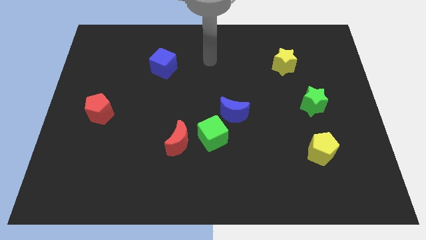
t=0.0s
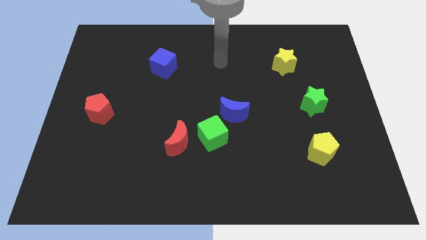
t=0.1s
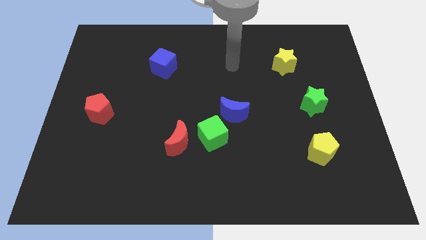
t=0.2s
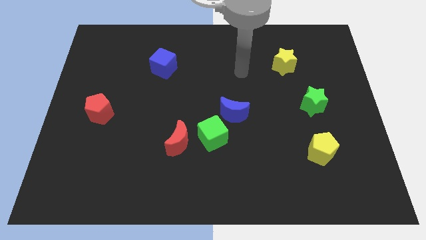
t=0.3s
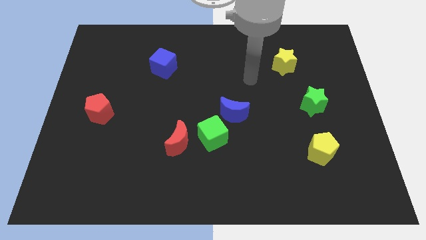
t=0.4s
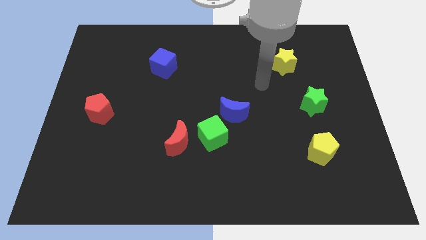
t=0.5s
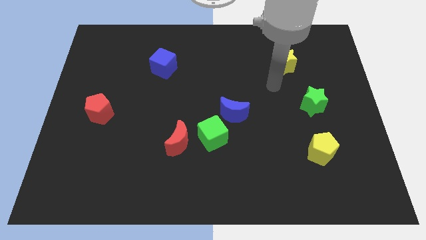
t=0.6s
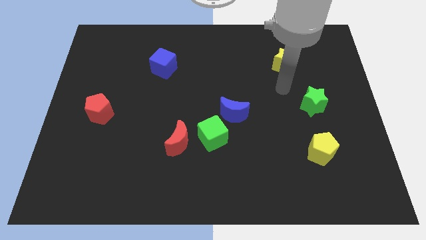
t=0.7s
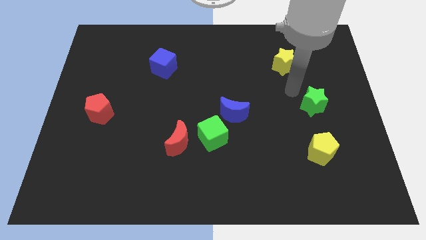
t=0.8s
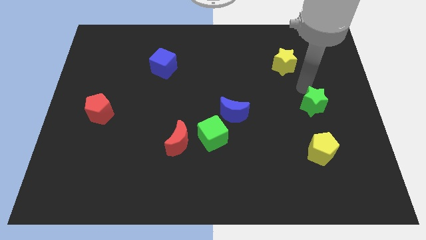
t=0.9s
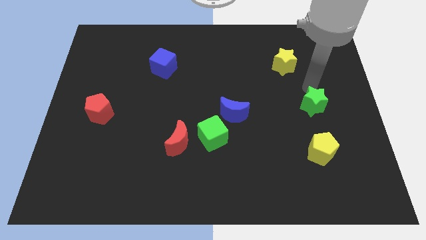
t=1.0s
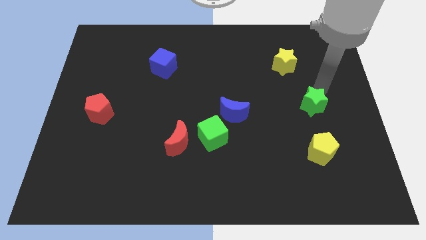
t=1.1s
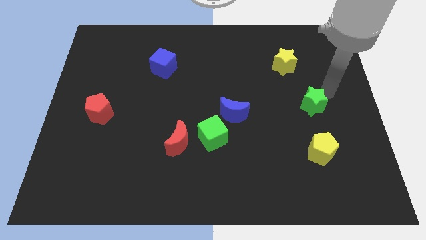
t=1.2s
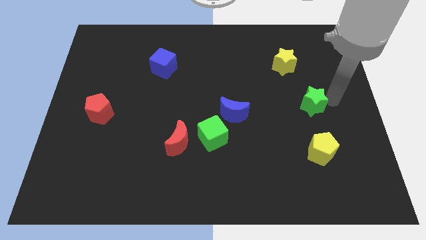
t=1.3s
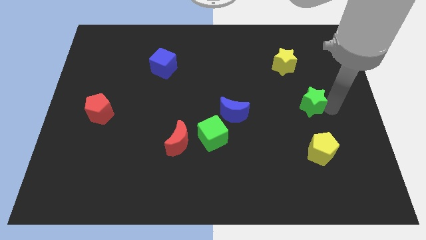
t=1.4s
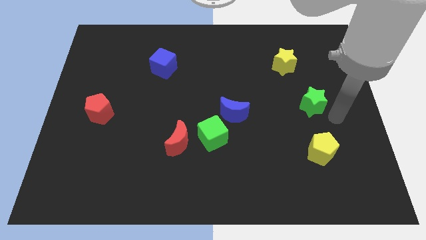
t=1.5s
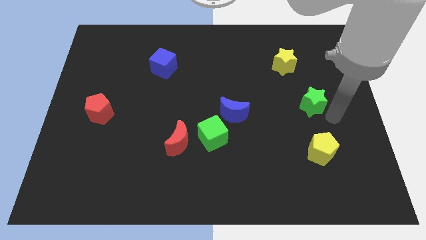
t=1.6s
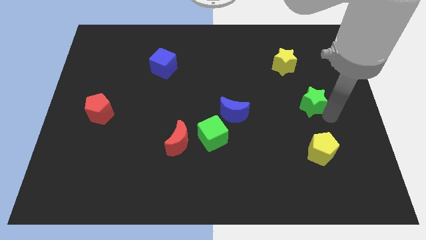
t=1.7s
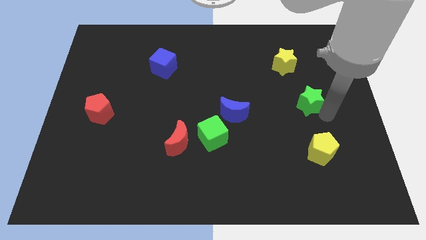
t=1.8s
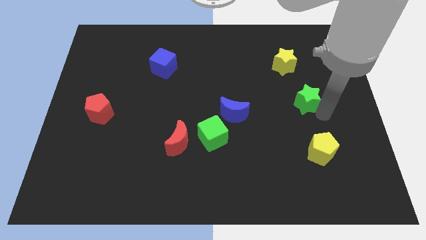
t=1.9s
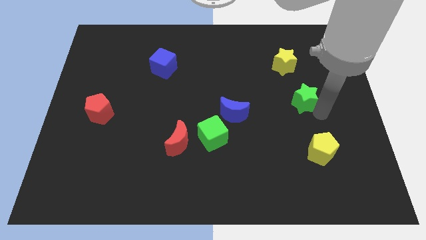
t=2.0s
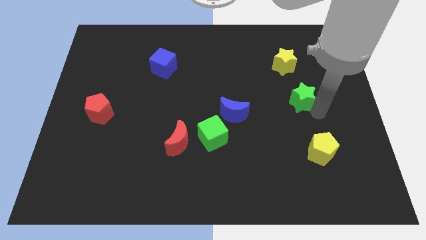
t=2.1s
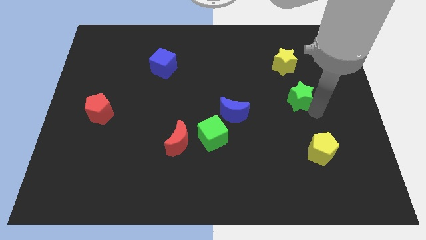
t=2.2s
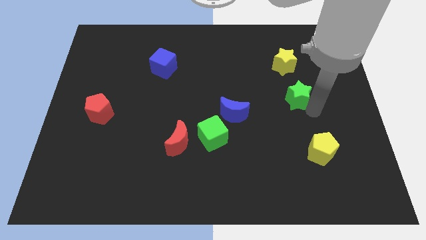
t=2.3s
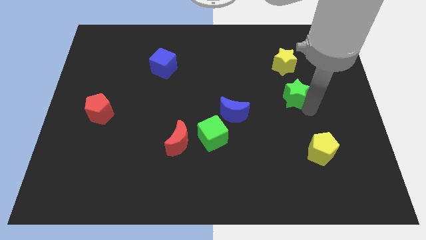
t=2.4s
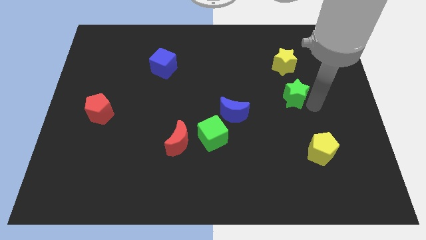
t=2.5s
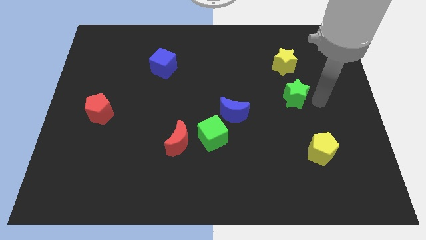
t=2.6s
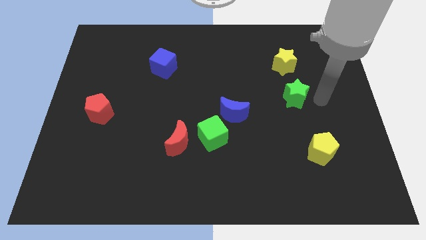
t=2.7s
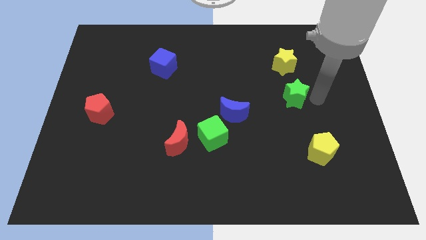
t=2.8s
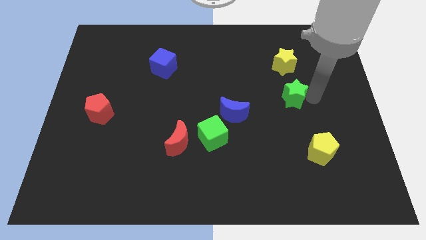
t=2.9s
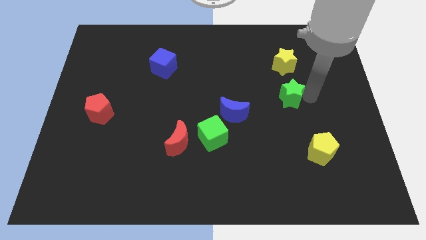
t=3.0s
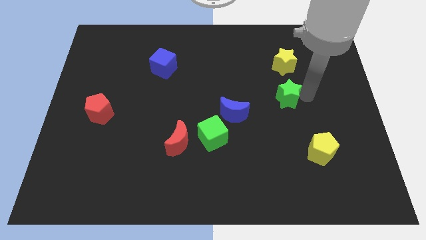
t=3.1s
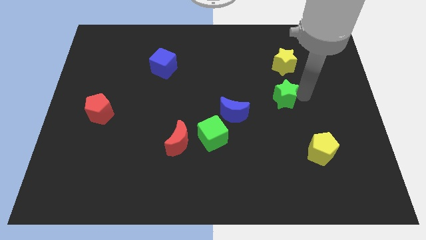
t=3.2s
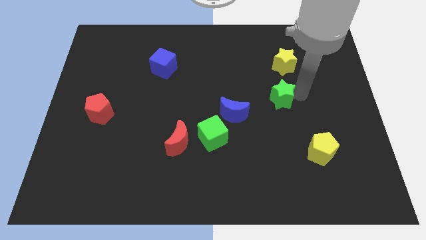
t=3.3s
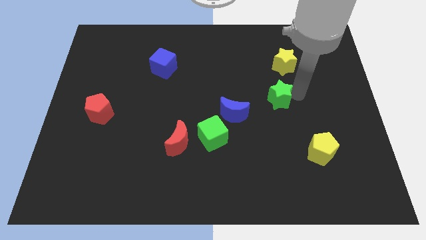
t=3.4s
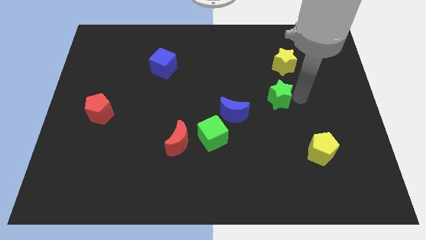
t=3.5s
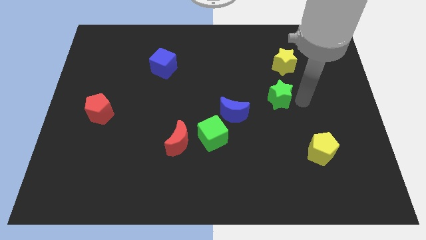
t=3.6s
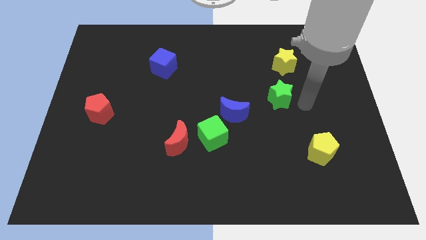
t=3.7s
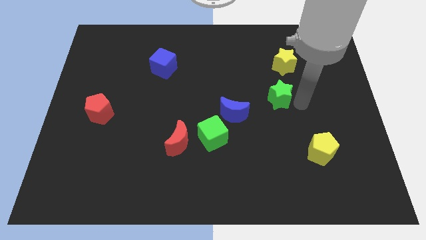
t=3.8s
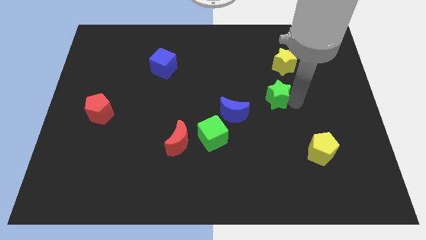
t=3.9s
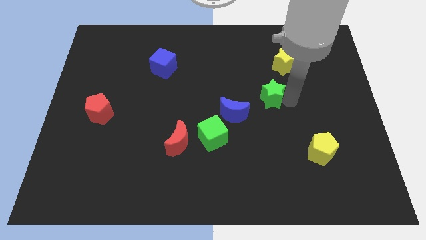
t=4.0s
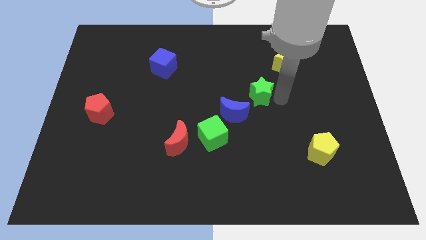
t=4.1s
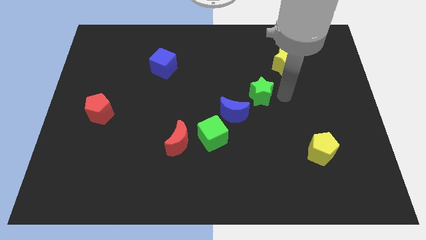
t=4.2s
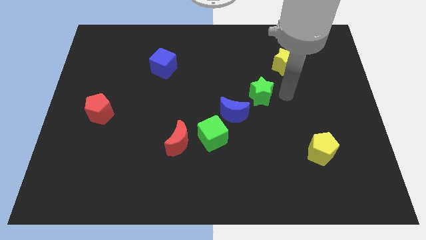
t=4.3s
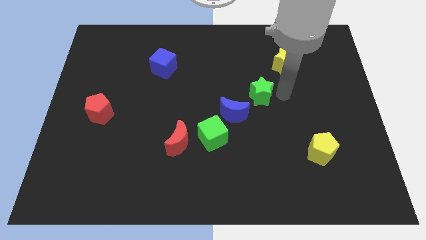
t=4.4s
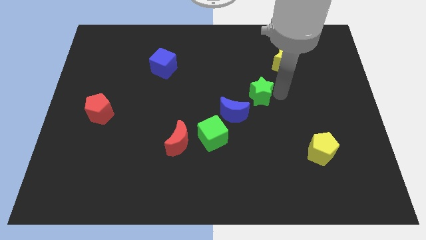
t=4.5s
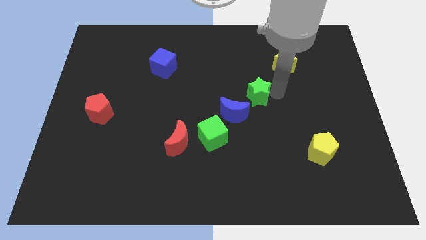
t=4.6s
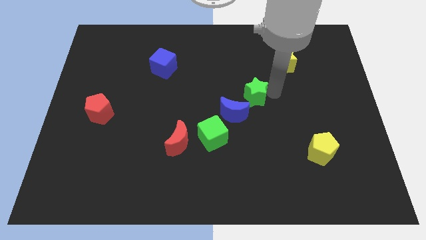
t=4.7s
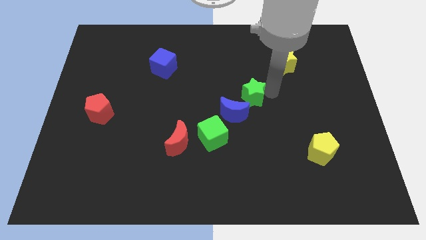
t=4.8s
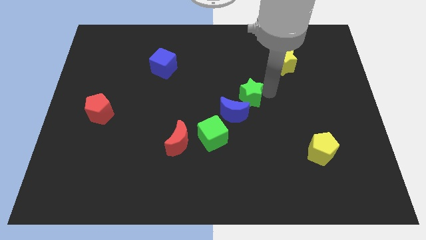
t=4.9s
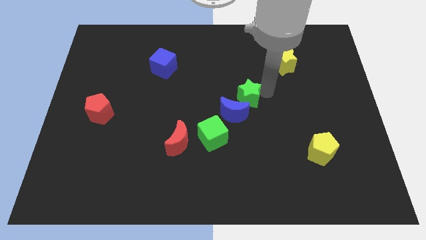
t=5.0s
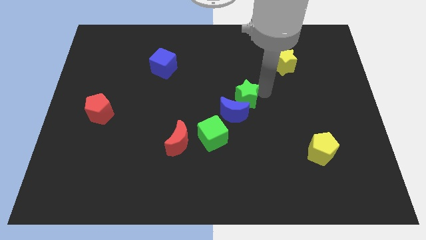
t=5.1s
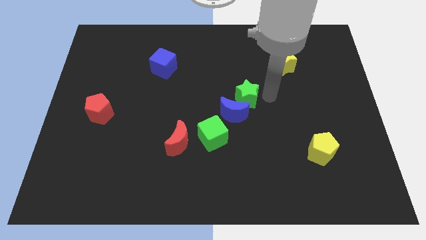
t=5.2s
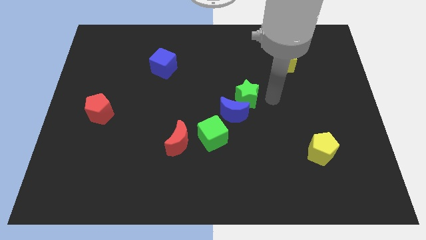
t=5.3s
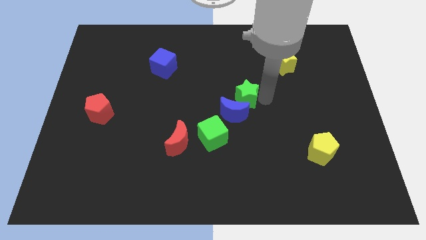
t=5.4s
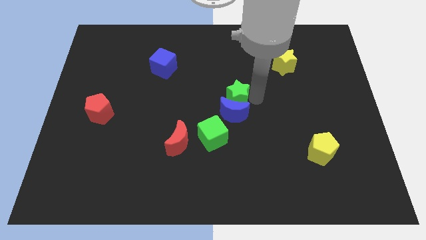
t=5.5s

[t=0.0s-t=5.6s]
slide the green star to the top left side of the blue moon
